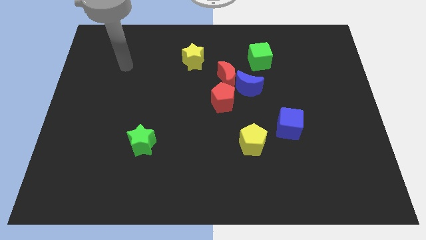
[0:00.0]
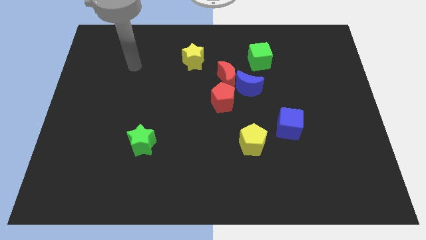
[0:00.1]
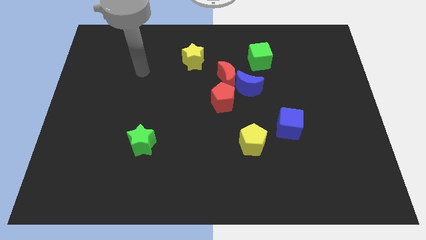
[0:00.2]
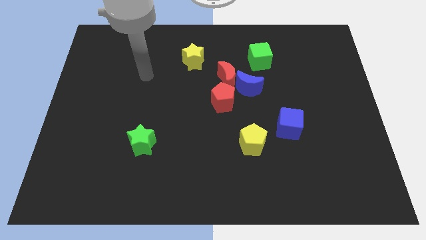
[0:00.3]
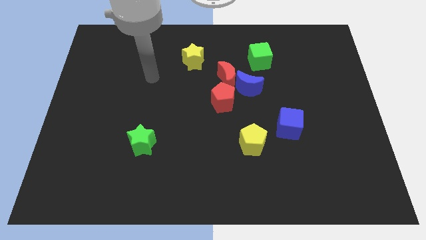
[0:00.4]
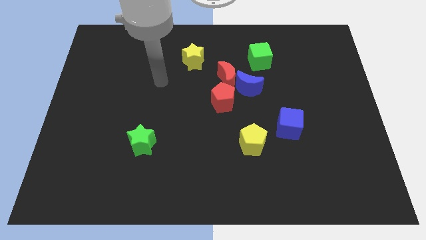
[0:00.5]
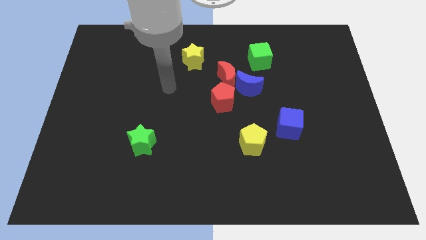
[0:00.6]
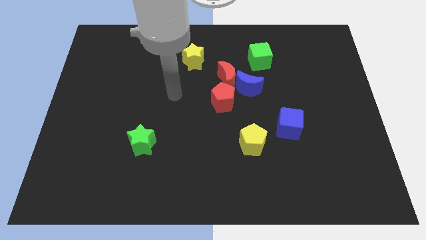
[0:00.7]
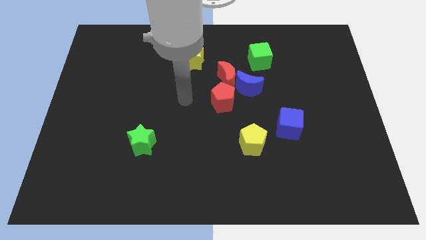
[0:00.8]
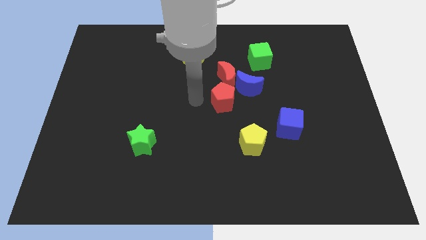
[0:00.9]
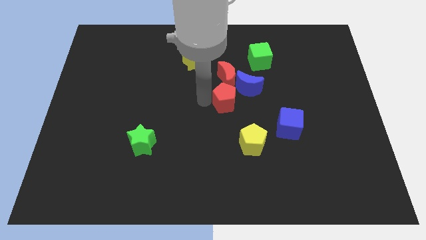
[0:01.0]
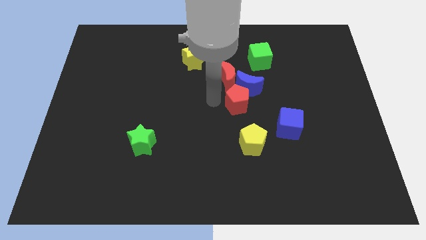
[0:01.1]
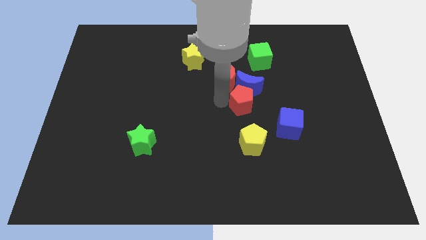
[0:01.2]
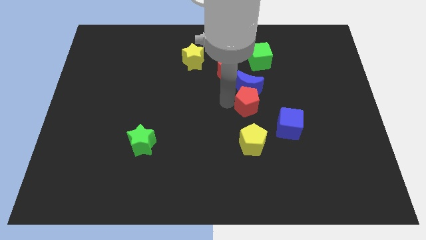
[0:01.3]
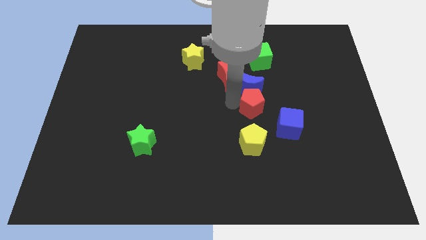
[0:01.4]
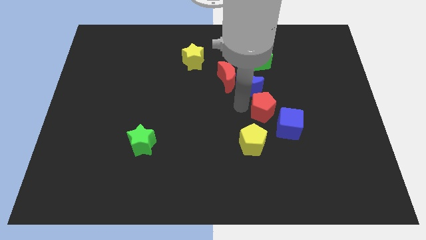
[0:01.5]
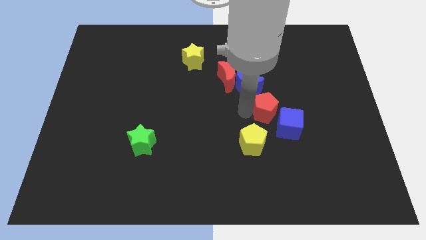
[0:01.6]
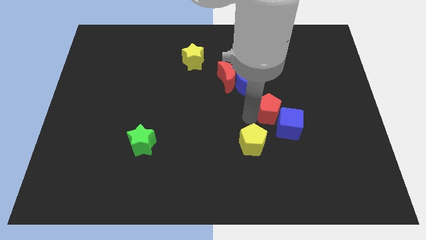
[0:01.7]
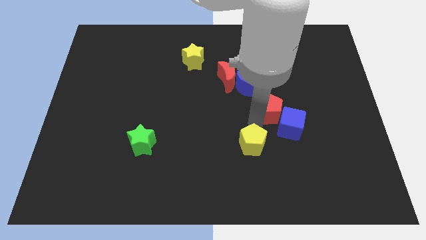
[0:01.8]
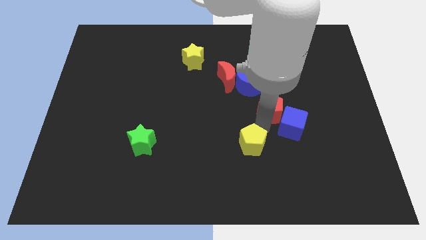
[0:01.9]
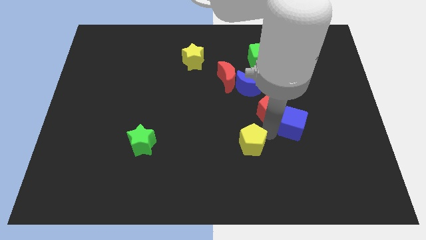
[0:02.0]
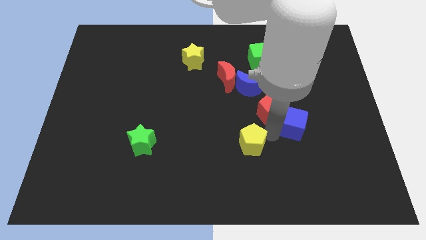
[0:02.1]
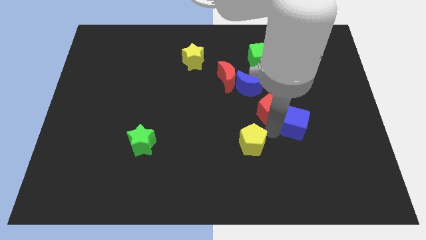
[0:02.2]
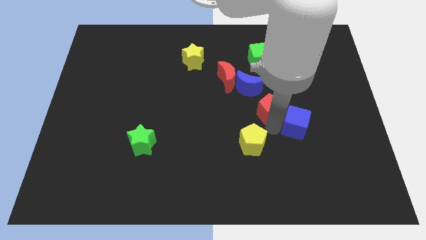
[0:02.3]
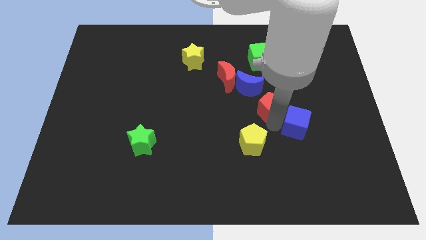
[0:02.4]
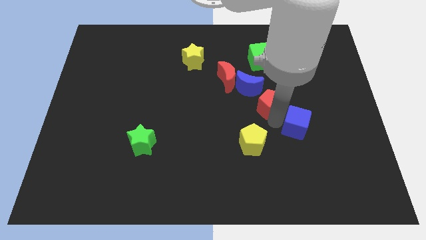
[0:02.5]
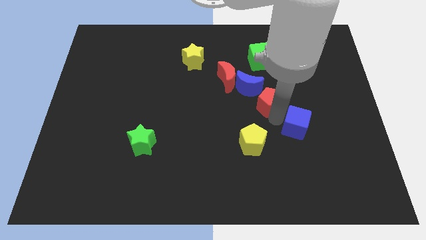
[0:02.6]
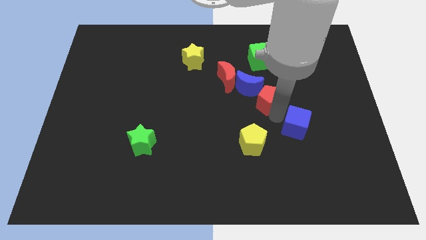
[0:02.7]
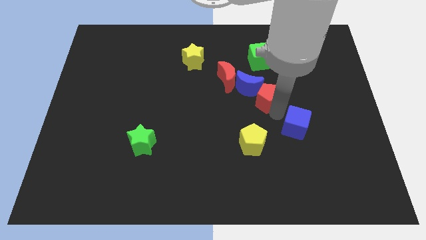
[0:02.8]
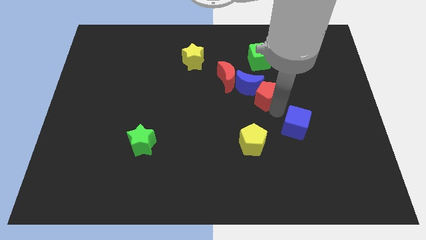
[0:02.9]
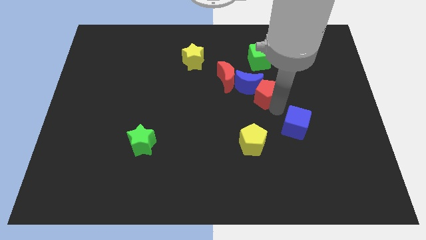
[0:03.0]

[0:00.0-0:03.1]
move the red pentagon upwards and right a little

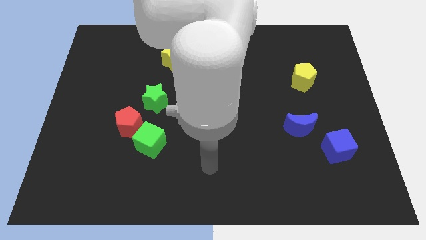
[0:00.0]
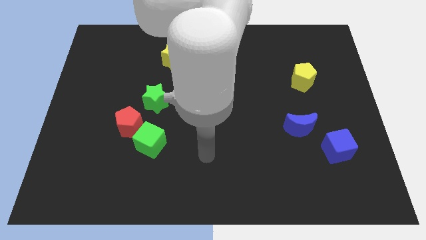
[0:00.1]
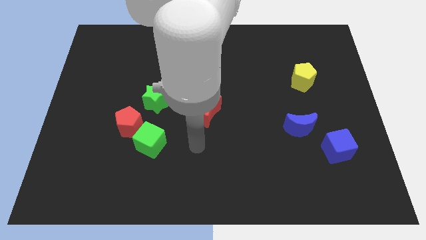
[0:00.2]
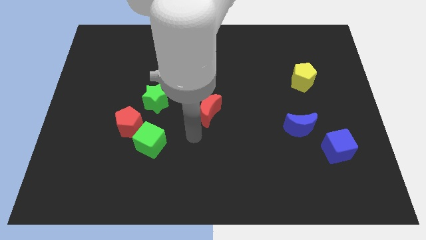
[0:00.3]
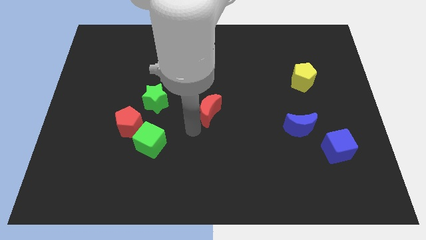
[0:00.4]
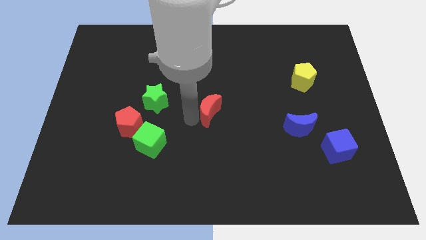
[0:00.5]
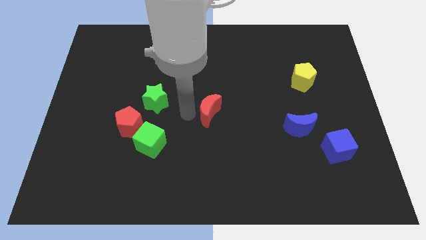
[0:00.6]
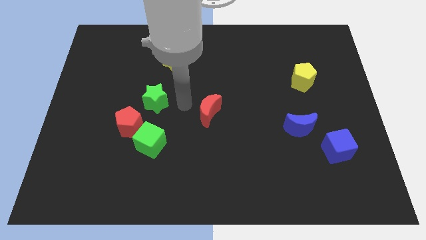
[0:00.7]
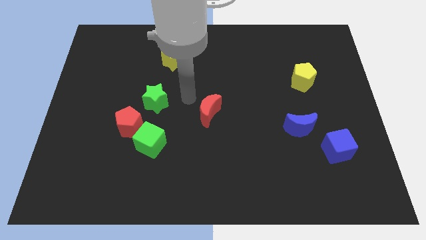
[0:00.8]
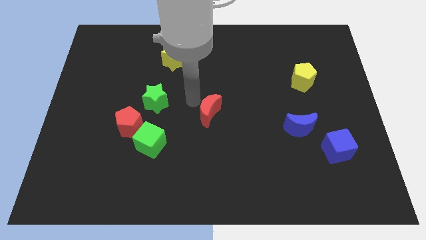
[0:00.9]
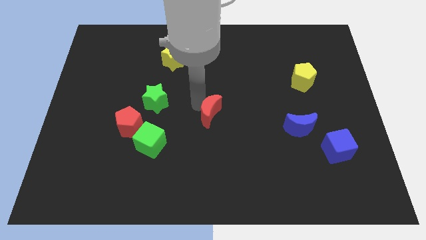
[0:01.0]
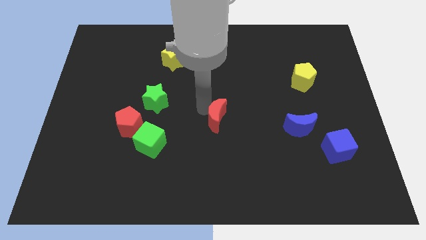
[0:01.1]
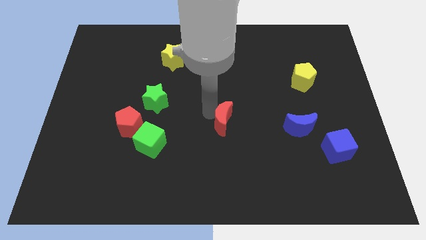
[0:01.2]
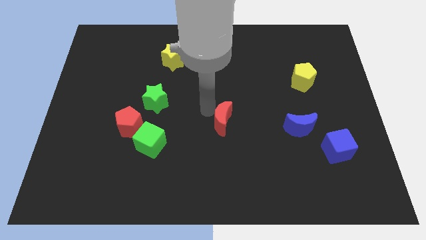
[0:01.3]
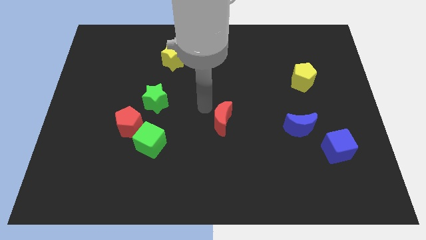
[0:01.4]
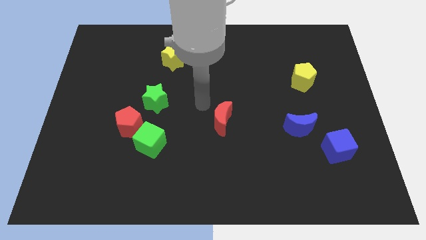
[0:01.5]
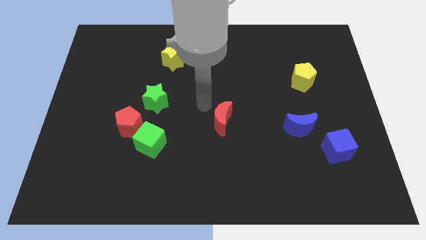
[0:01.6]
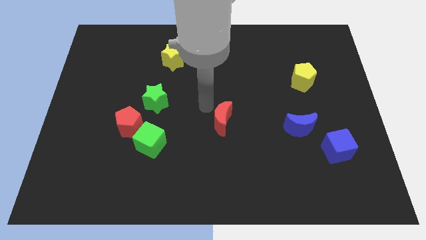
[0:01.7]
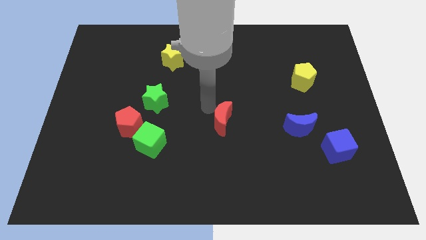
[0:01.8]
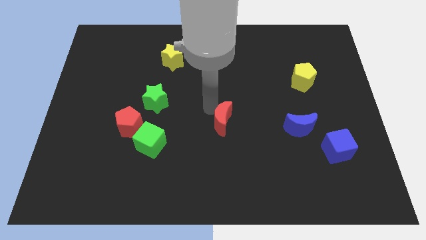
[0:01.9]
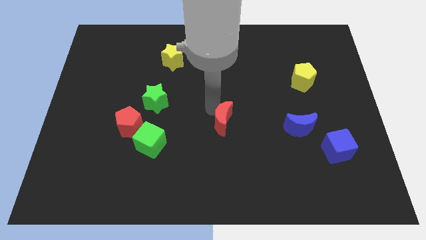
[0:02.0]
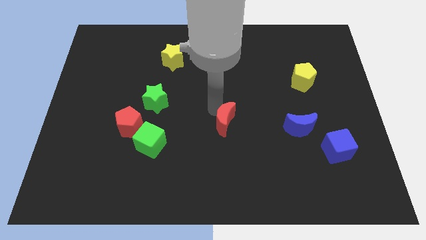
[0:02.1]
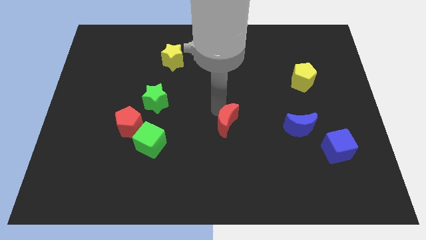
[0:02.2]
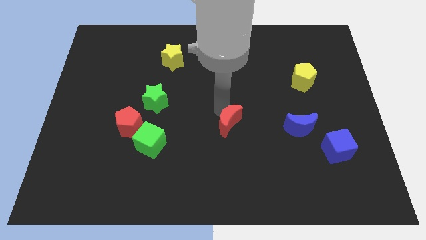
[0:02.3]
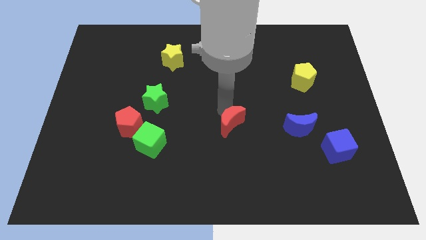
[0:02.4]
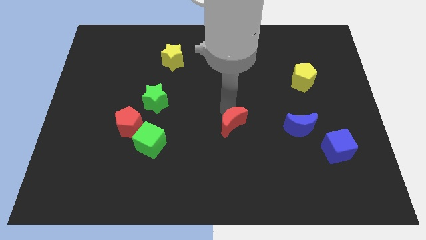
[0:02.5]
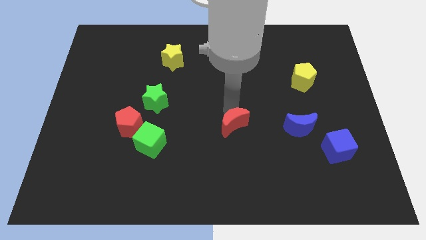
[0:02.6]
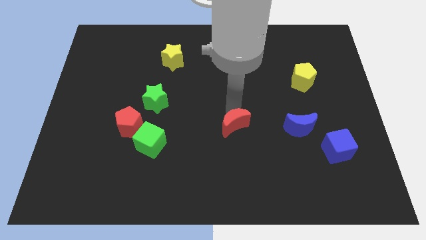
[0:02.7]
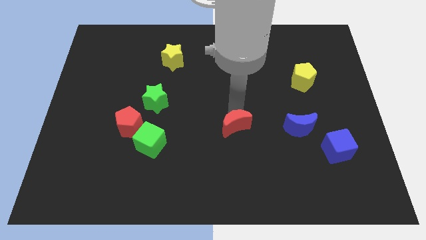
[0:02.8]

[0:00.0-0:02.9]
slightly slide the red moon diagonally downwards and right

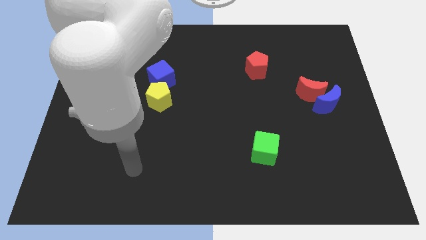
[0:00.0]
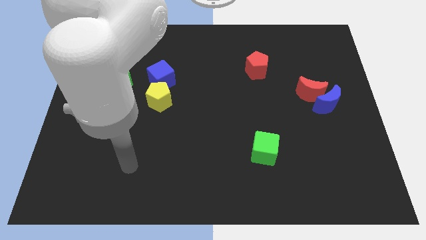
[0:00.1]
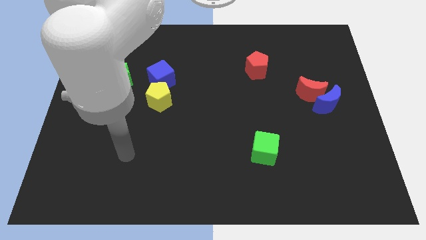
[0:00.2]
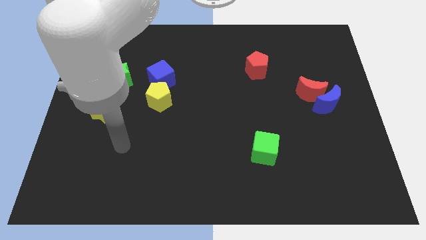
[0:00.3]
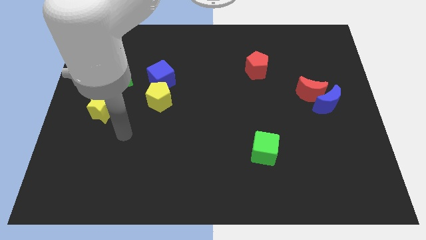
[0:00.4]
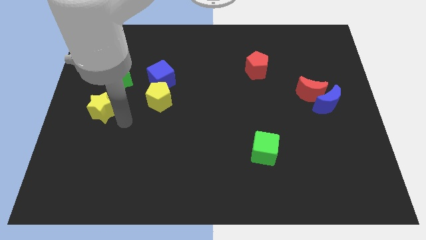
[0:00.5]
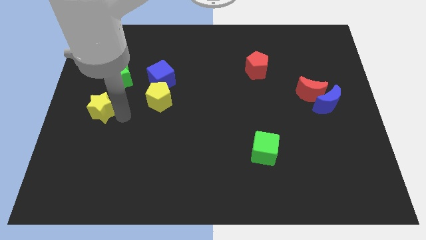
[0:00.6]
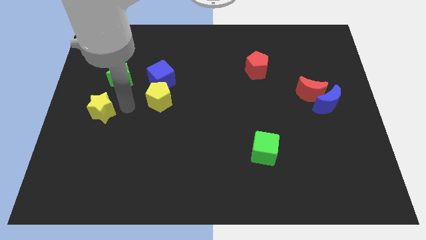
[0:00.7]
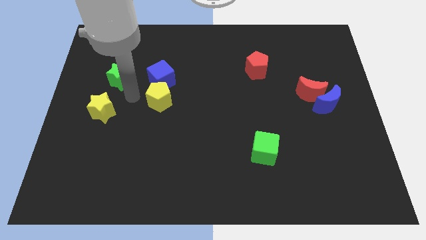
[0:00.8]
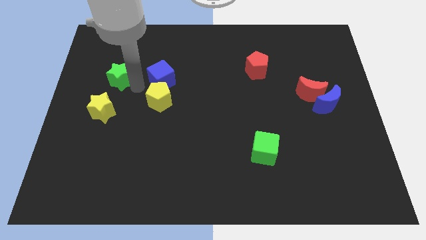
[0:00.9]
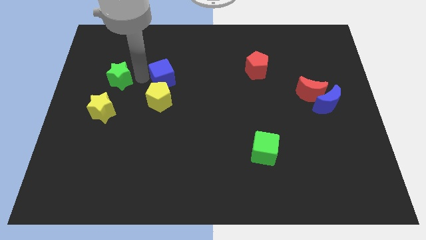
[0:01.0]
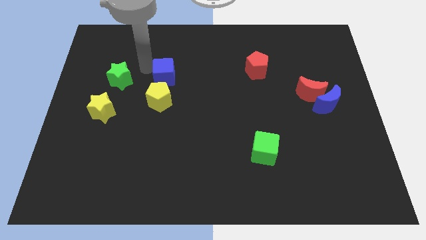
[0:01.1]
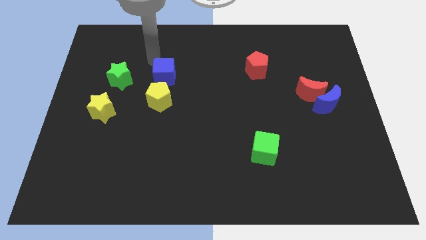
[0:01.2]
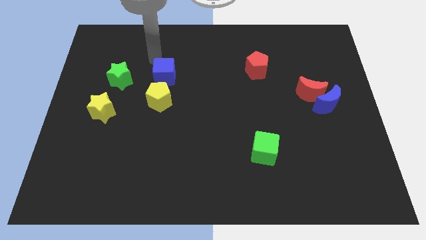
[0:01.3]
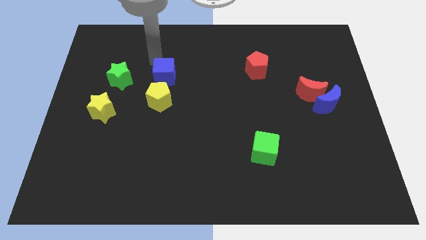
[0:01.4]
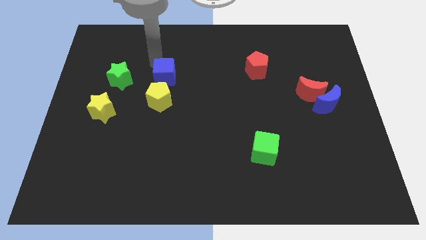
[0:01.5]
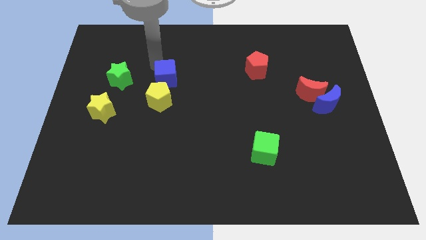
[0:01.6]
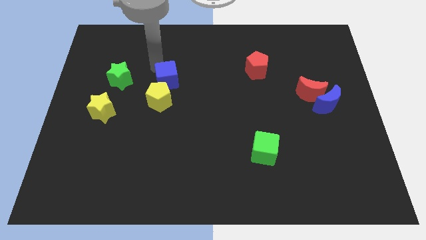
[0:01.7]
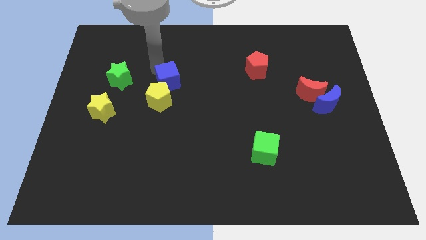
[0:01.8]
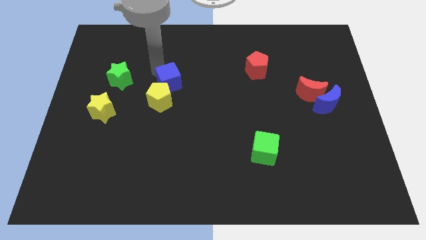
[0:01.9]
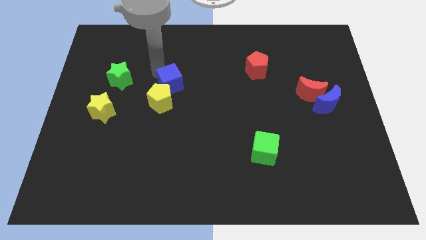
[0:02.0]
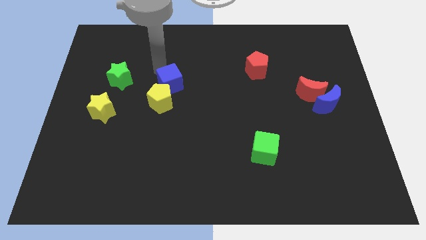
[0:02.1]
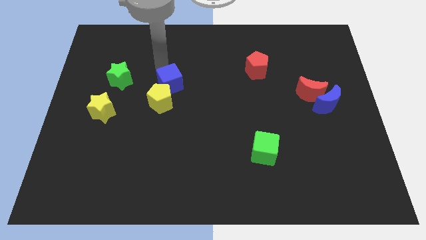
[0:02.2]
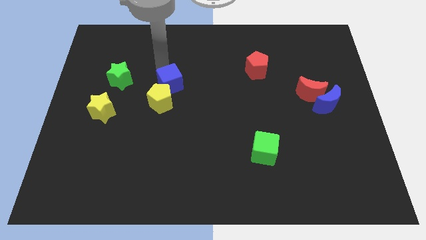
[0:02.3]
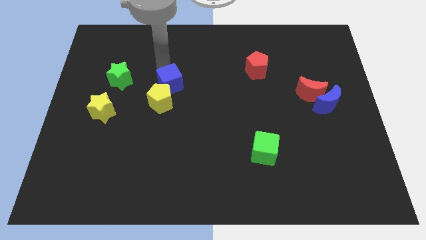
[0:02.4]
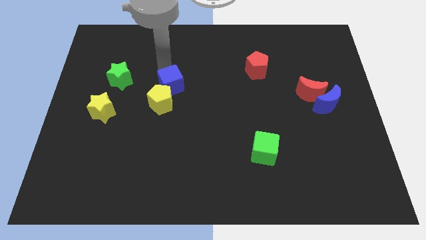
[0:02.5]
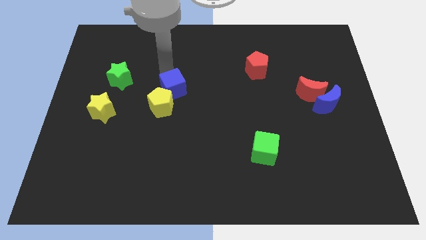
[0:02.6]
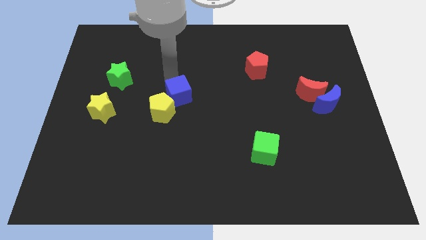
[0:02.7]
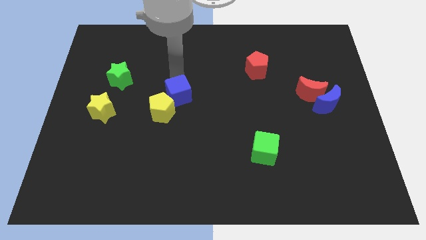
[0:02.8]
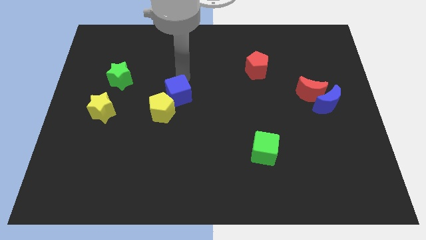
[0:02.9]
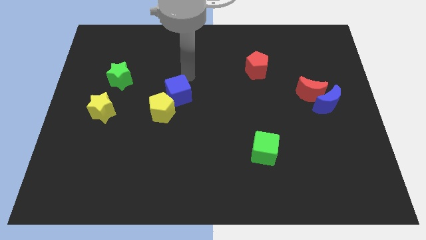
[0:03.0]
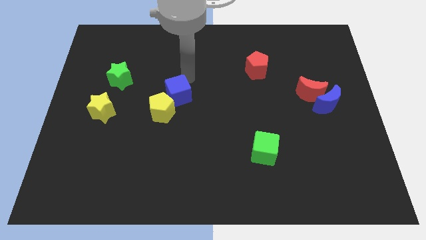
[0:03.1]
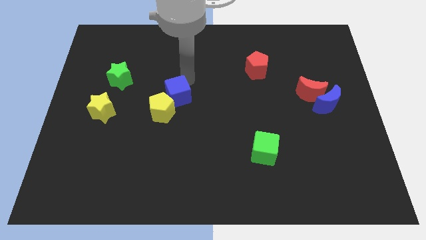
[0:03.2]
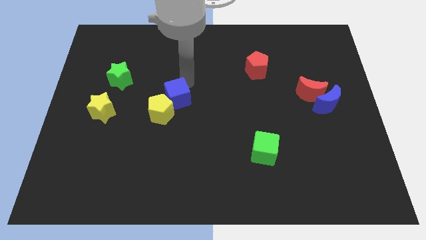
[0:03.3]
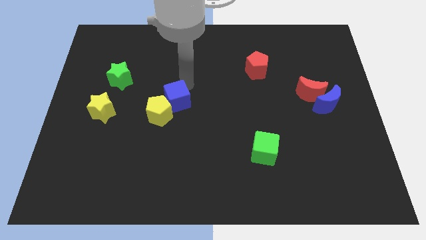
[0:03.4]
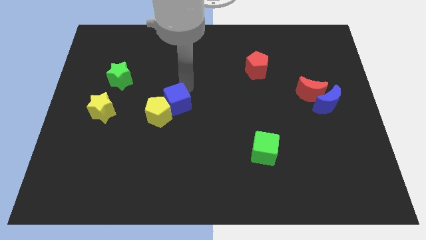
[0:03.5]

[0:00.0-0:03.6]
slightly slide the blue cube downwards
